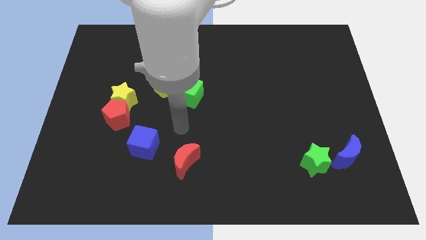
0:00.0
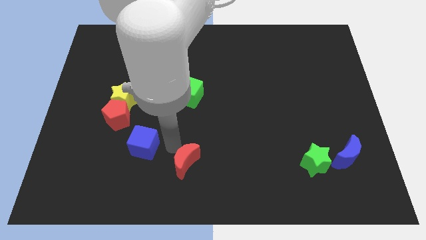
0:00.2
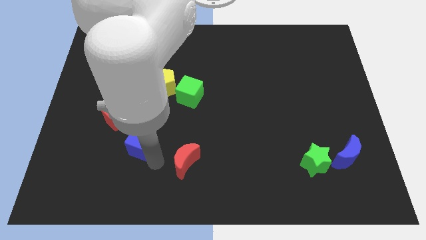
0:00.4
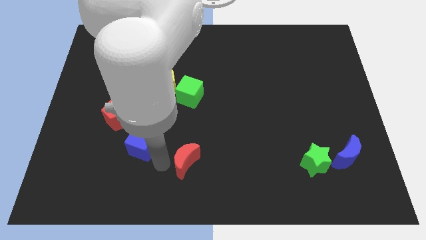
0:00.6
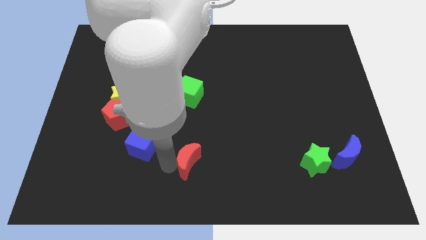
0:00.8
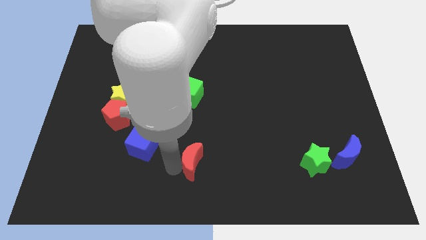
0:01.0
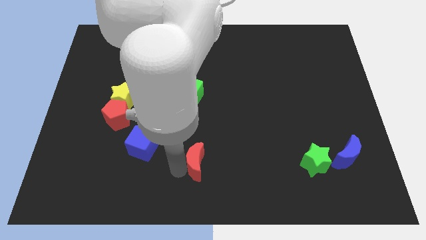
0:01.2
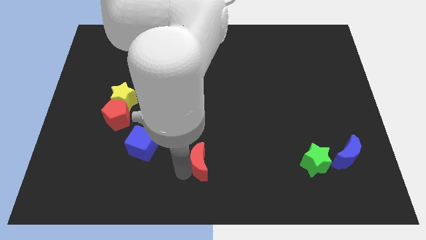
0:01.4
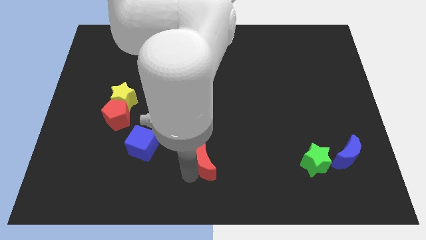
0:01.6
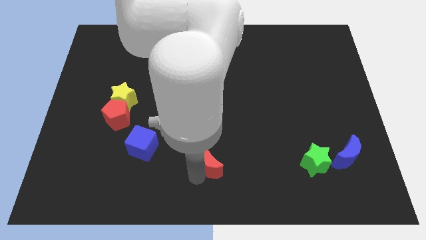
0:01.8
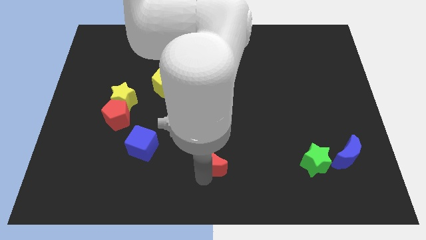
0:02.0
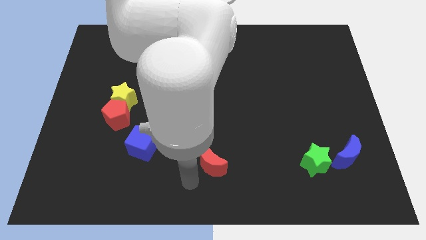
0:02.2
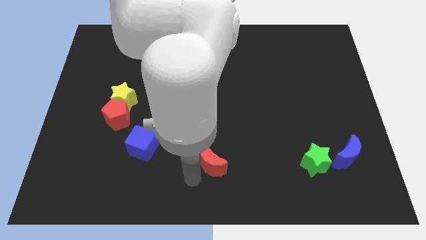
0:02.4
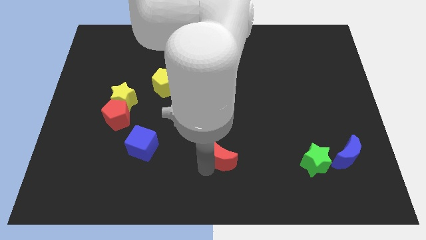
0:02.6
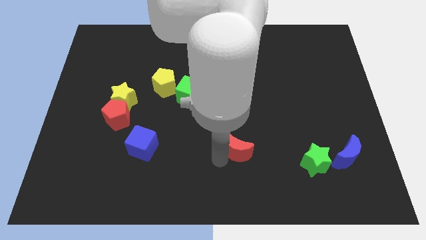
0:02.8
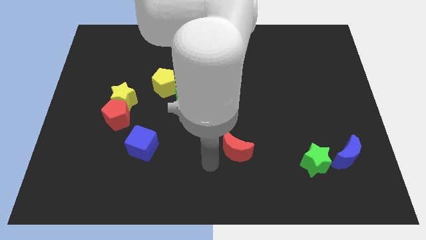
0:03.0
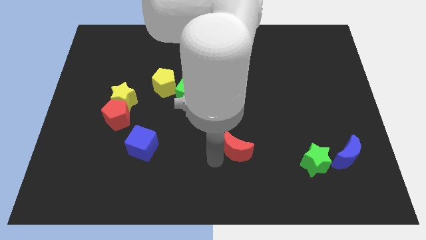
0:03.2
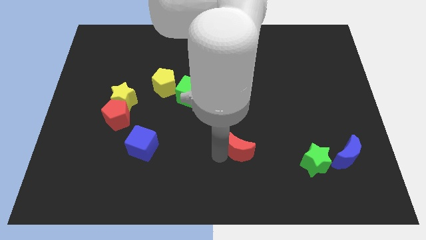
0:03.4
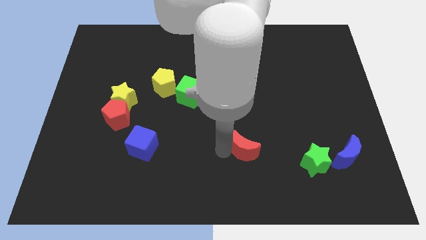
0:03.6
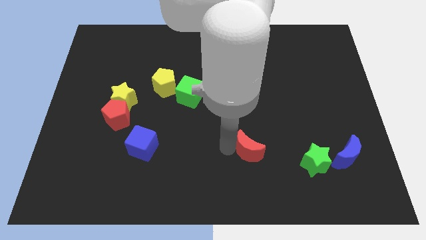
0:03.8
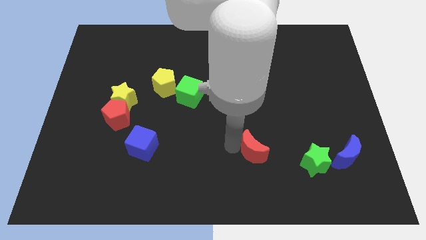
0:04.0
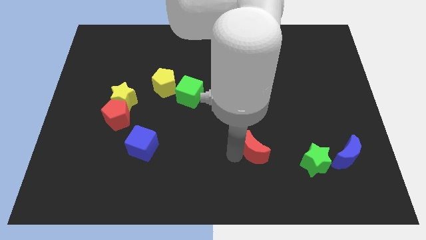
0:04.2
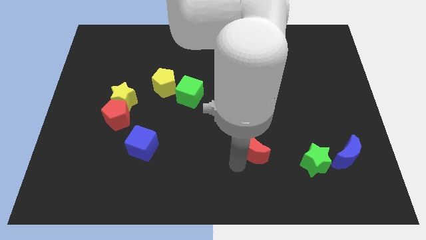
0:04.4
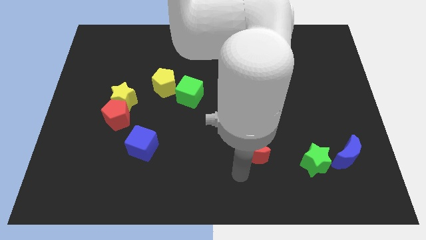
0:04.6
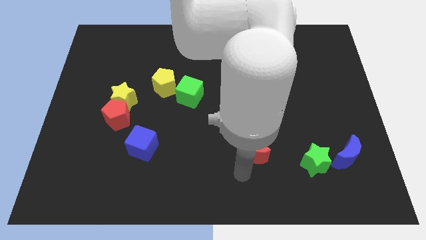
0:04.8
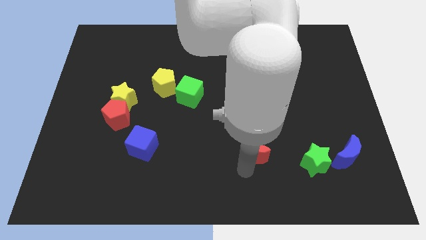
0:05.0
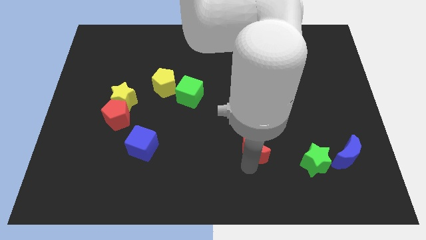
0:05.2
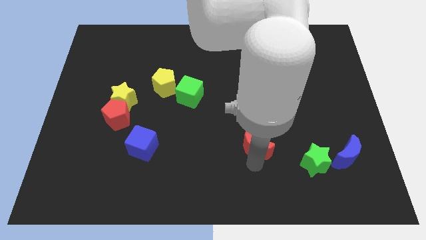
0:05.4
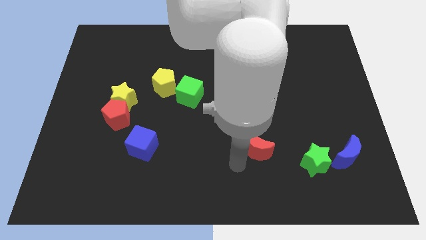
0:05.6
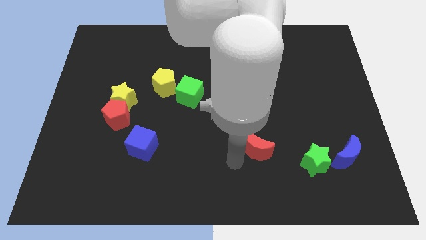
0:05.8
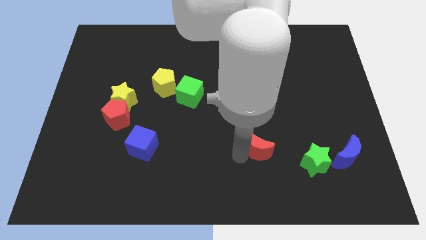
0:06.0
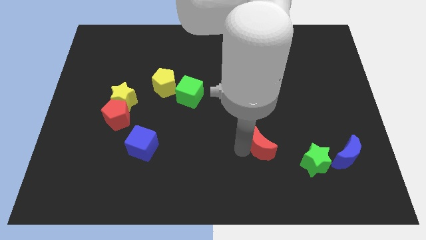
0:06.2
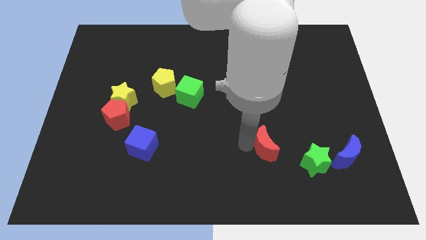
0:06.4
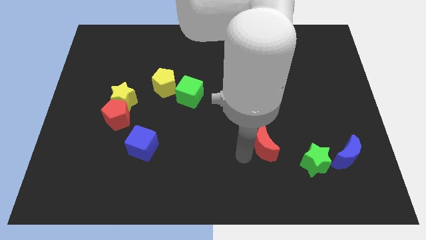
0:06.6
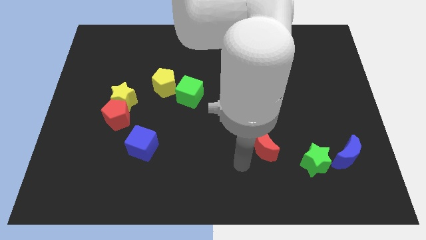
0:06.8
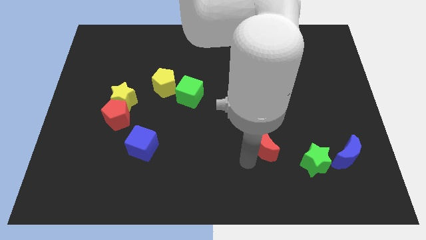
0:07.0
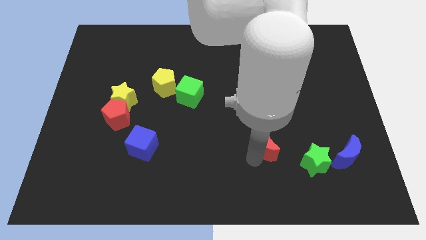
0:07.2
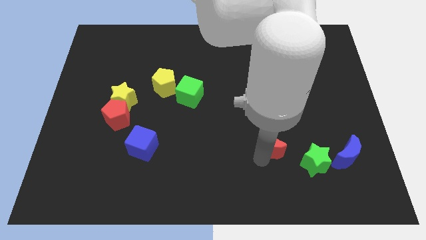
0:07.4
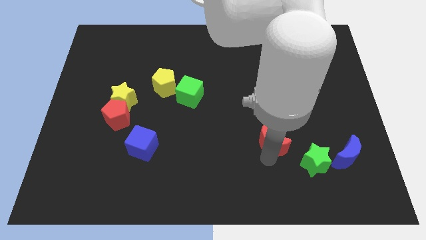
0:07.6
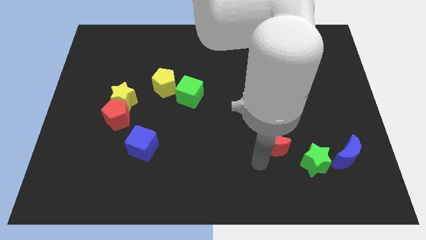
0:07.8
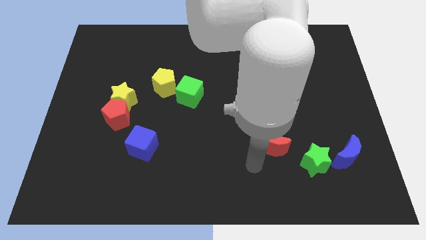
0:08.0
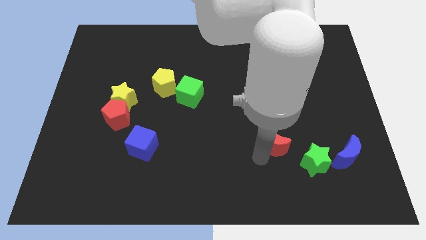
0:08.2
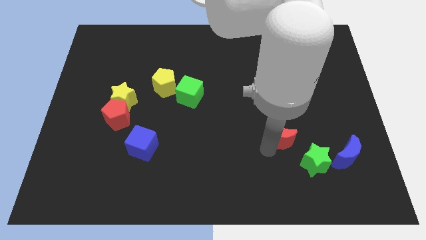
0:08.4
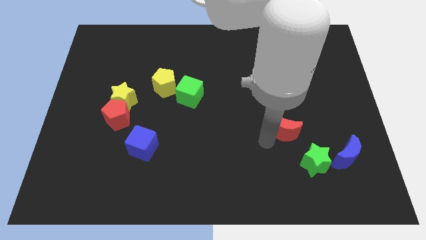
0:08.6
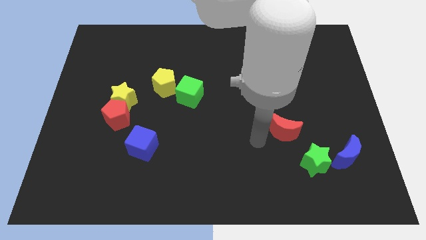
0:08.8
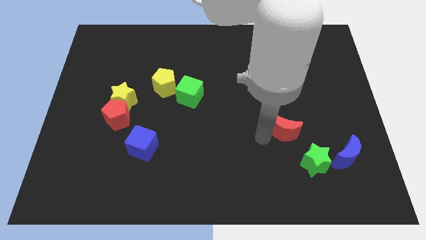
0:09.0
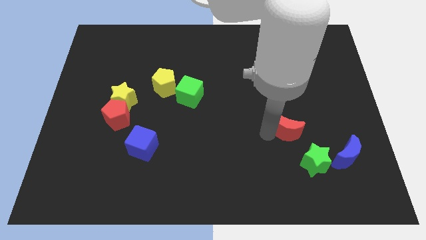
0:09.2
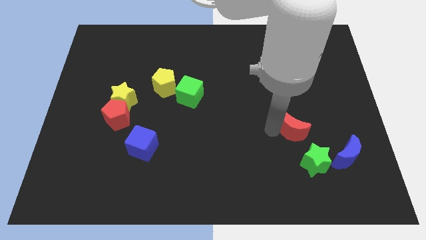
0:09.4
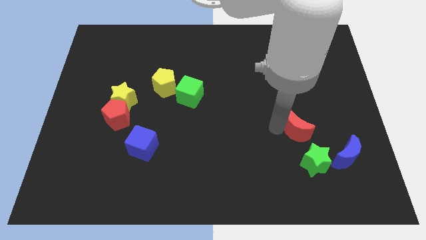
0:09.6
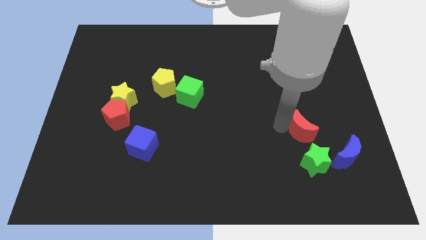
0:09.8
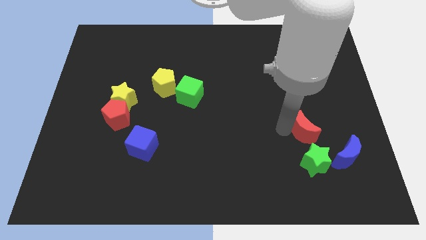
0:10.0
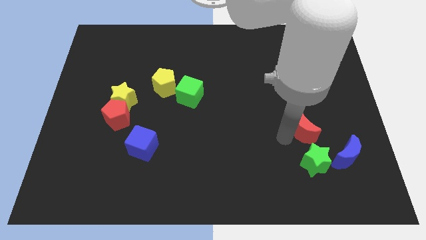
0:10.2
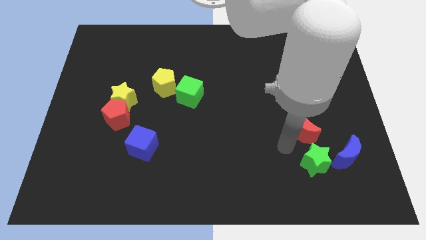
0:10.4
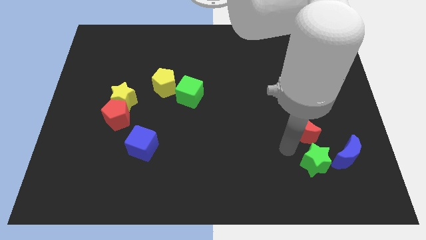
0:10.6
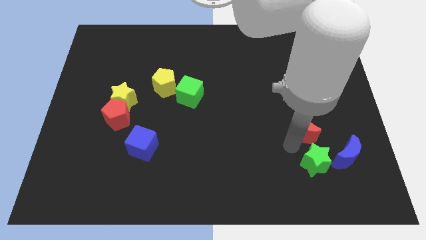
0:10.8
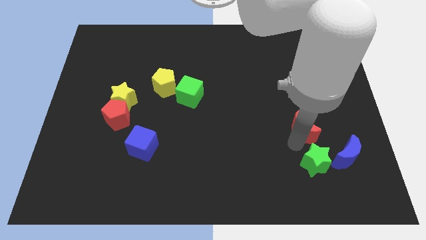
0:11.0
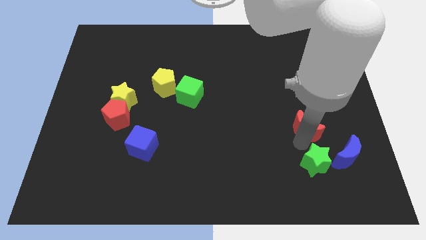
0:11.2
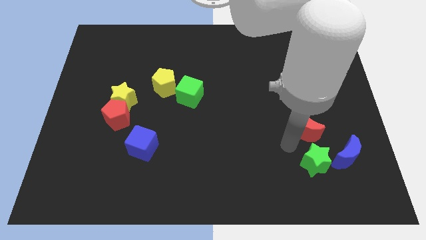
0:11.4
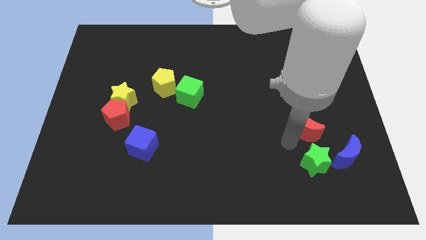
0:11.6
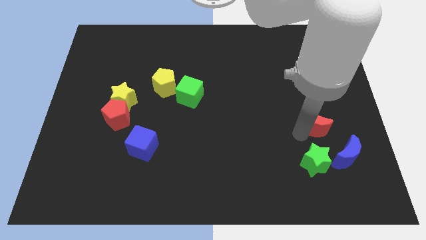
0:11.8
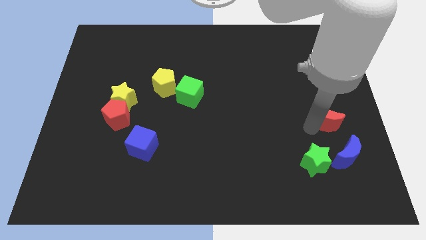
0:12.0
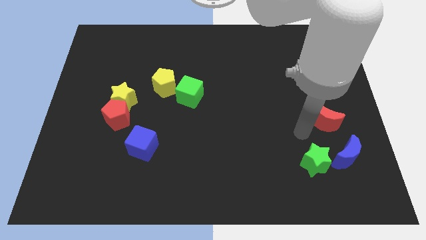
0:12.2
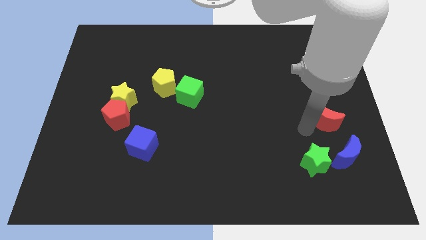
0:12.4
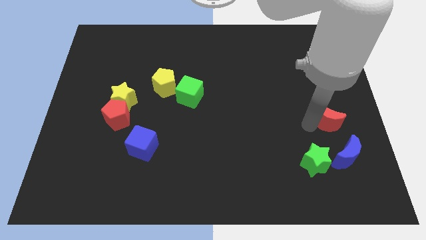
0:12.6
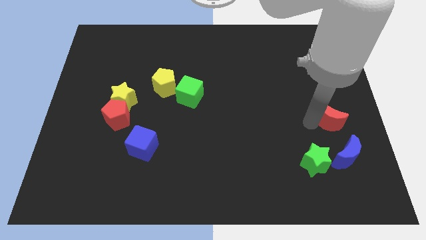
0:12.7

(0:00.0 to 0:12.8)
push the red moon to the right side
